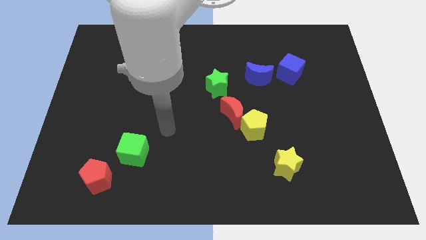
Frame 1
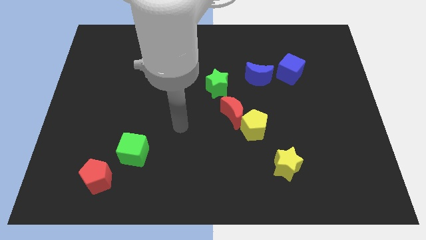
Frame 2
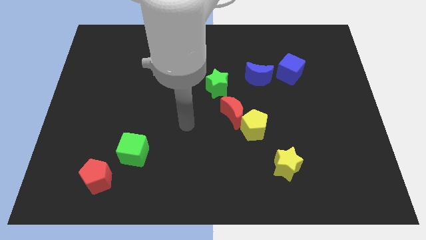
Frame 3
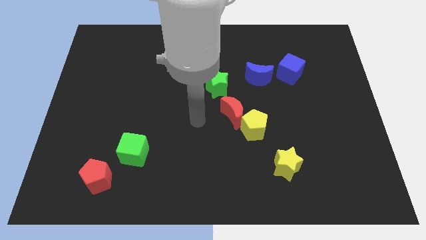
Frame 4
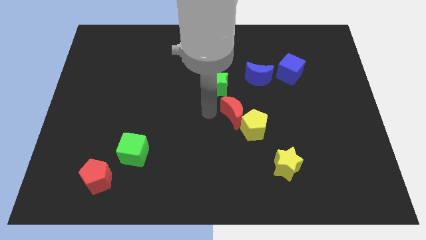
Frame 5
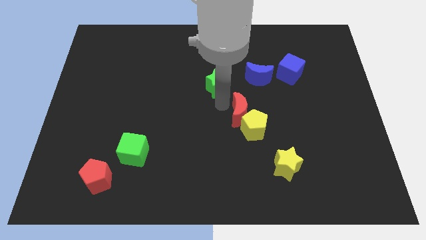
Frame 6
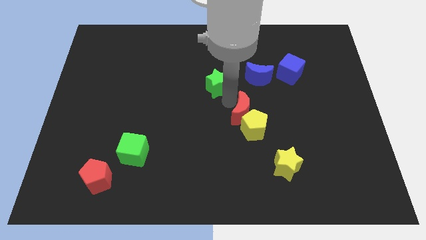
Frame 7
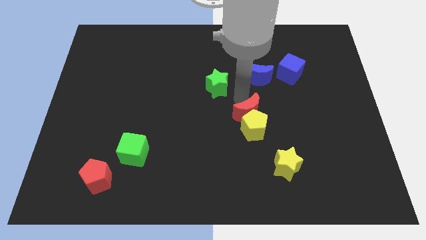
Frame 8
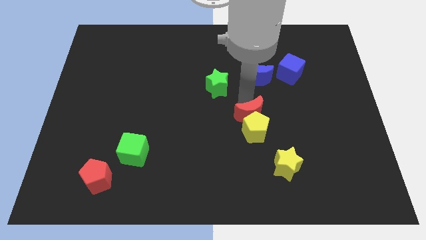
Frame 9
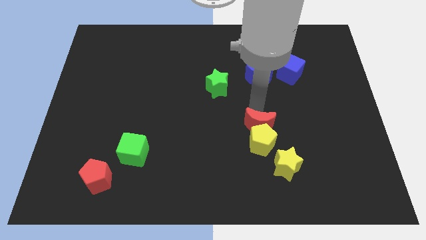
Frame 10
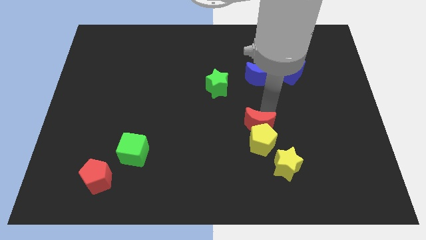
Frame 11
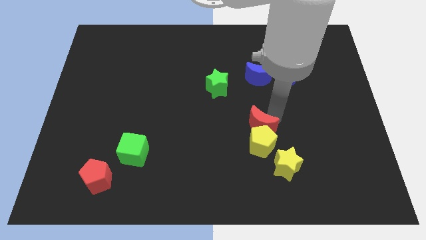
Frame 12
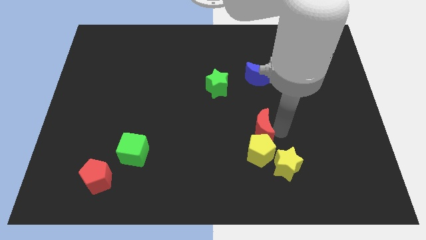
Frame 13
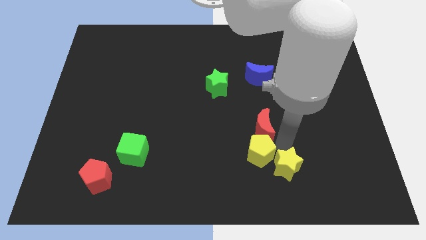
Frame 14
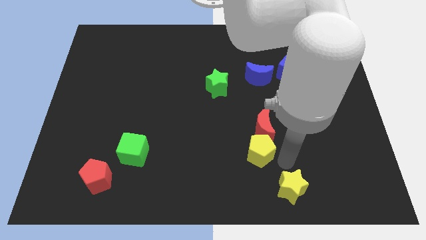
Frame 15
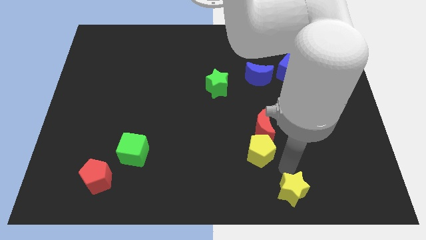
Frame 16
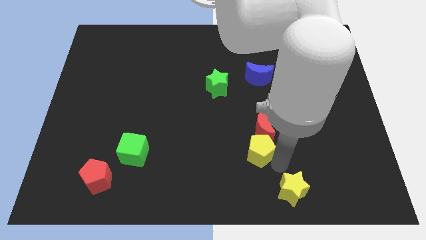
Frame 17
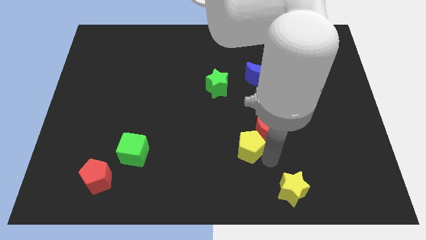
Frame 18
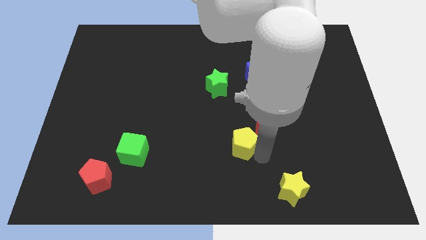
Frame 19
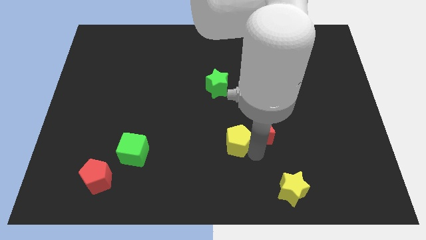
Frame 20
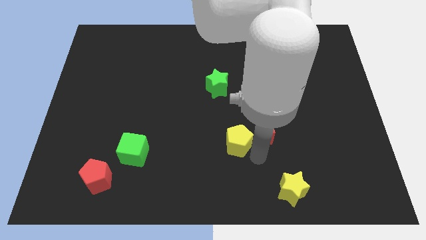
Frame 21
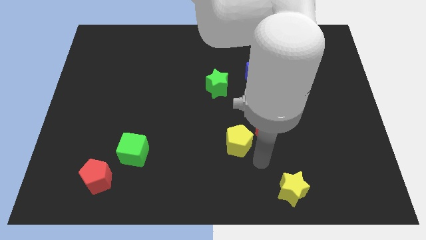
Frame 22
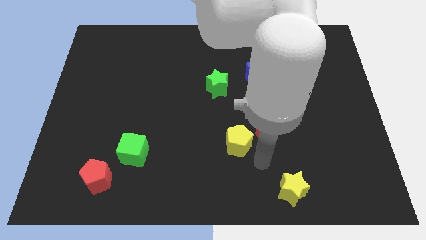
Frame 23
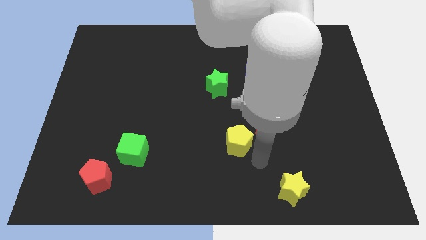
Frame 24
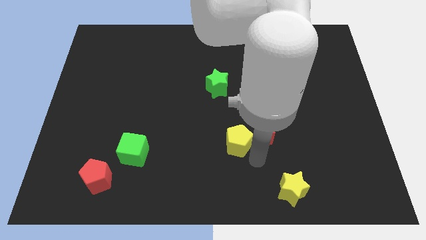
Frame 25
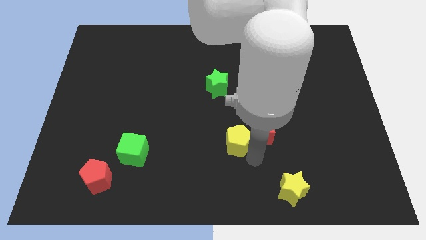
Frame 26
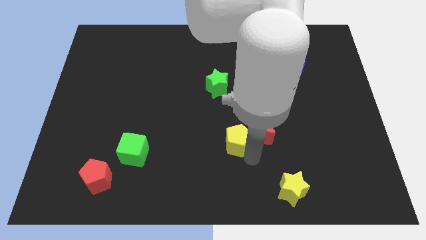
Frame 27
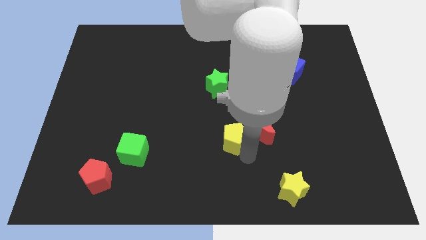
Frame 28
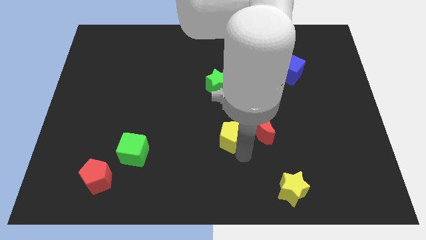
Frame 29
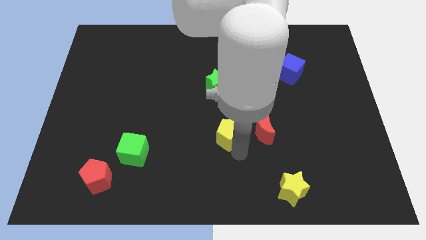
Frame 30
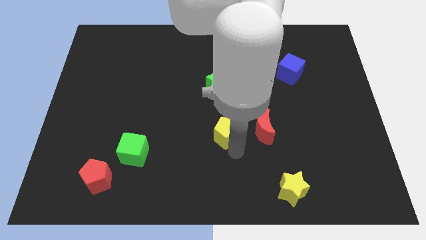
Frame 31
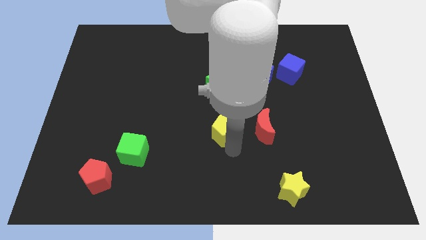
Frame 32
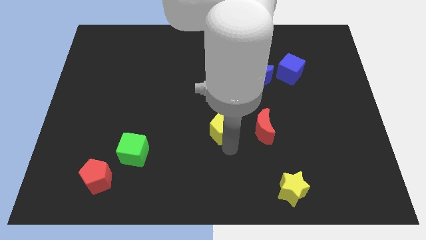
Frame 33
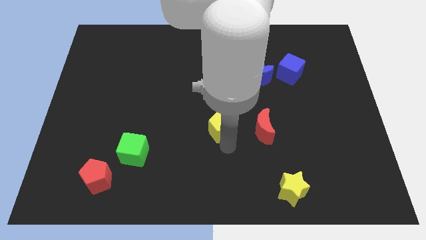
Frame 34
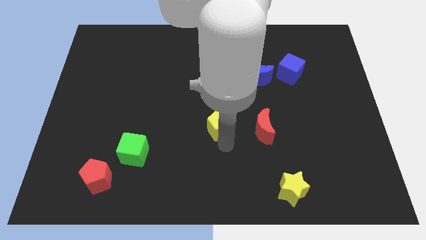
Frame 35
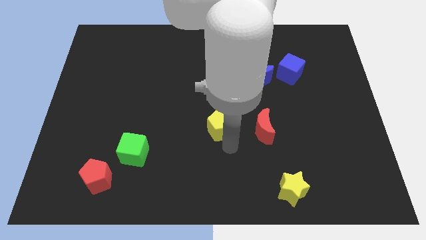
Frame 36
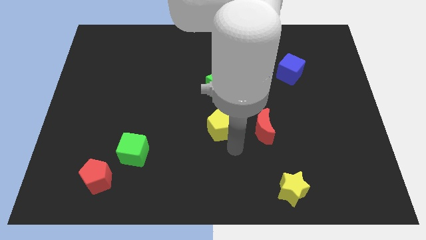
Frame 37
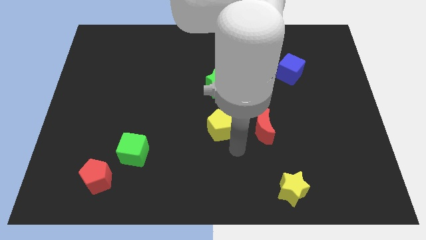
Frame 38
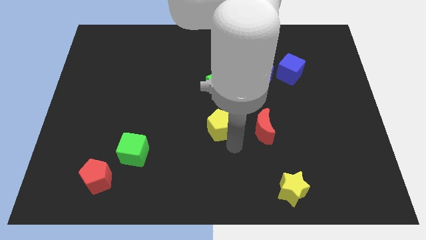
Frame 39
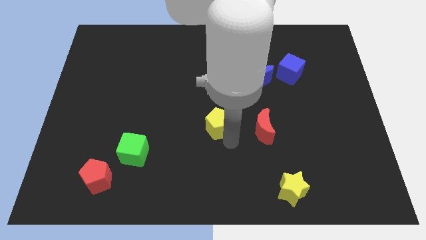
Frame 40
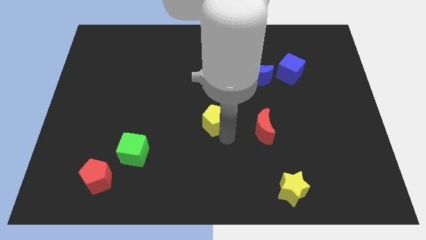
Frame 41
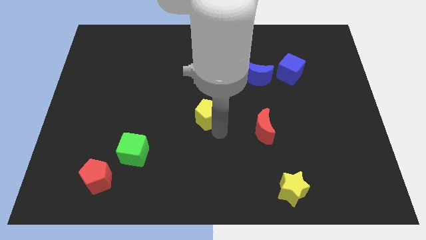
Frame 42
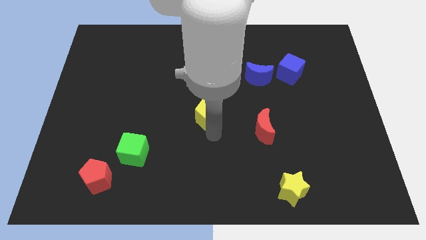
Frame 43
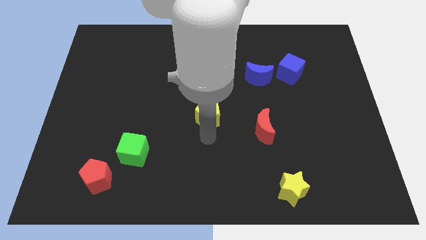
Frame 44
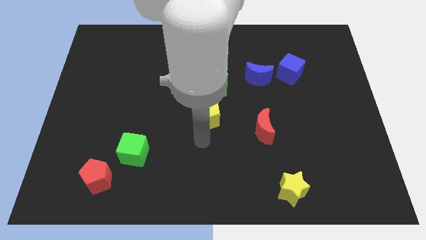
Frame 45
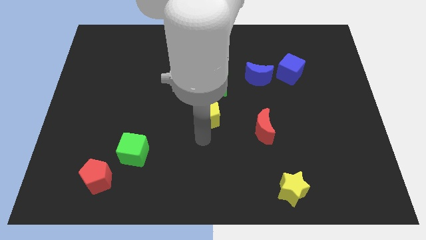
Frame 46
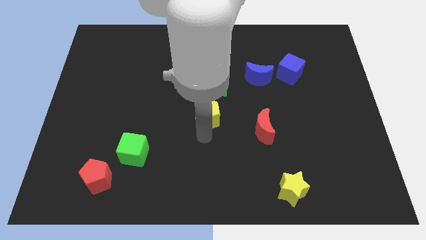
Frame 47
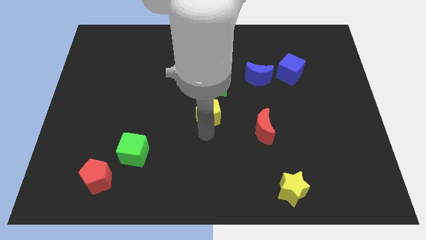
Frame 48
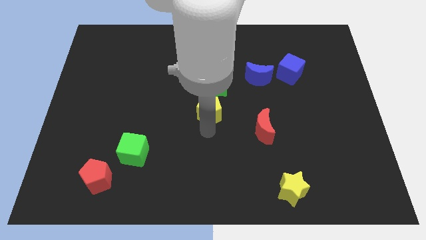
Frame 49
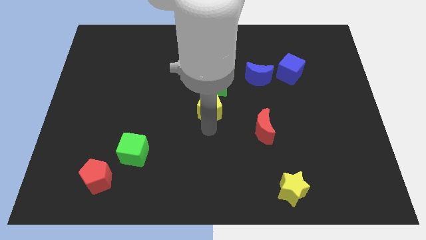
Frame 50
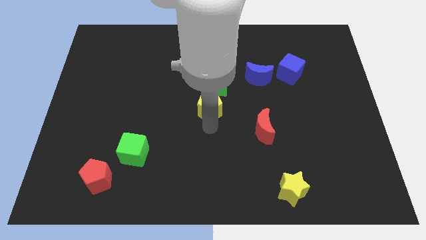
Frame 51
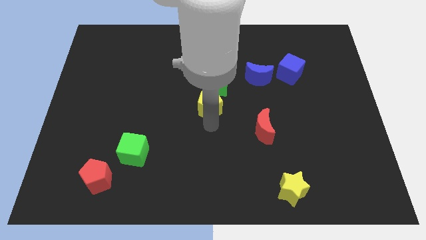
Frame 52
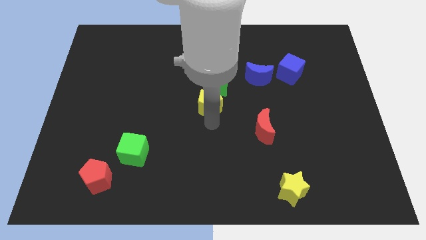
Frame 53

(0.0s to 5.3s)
move the yellow pentagon close to the green star

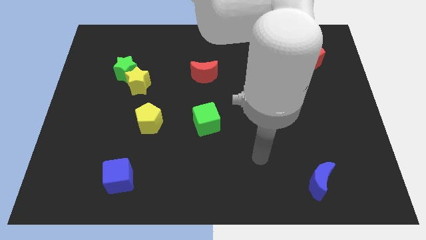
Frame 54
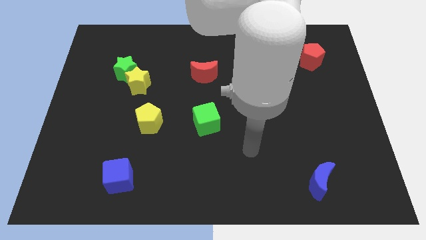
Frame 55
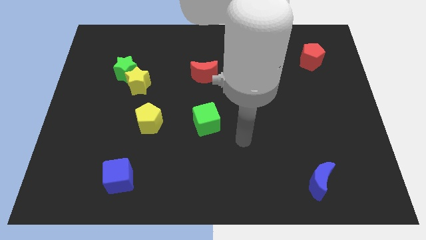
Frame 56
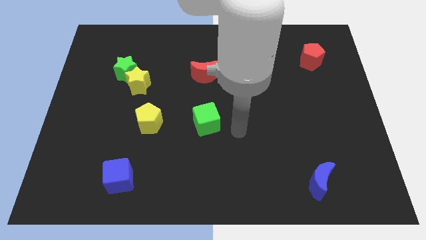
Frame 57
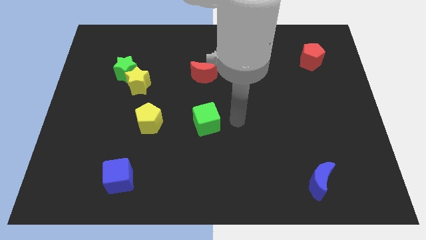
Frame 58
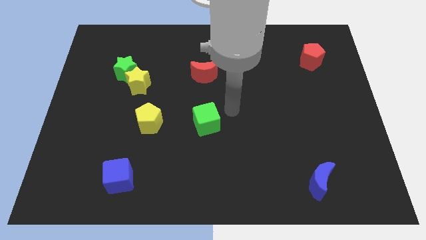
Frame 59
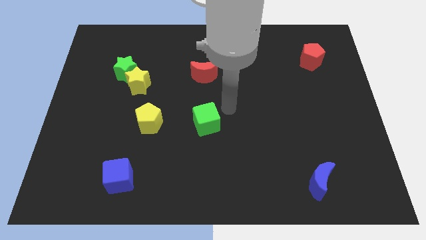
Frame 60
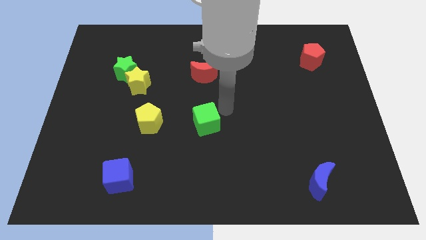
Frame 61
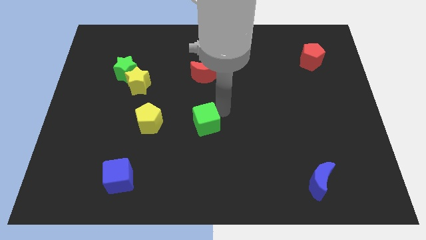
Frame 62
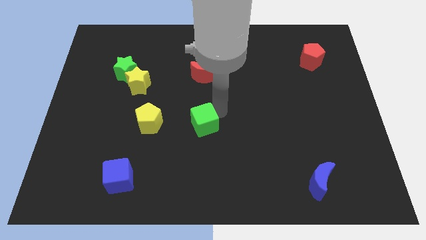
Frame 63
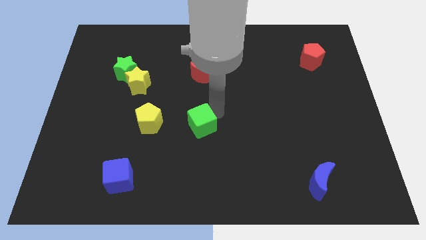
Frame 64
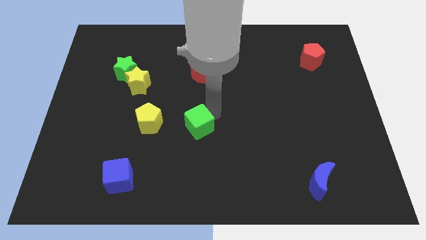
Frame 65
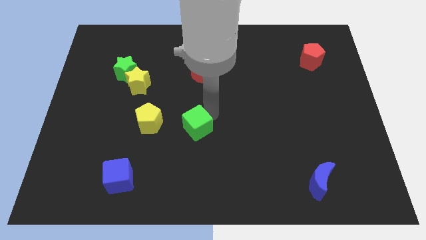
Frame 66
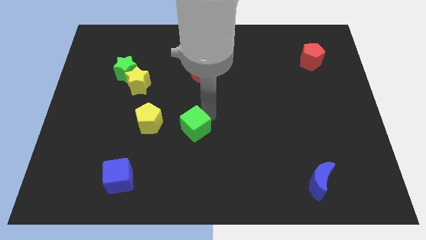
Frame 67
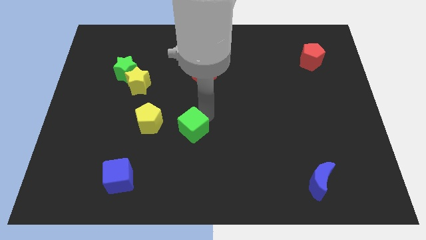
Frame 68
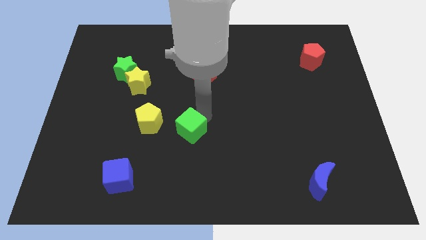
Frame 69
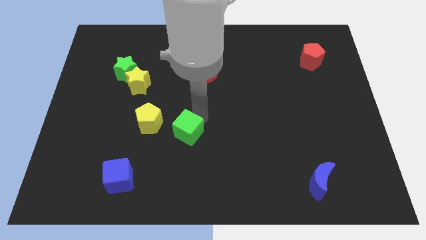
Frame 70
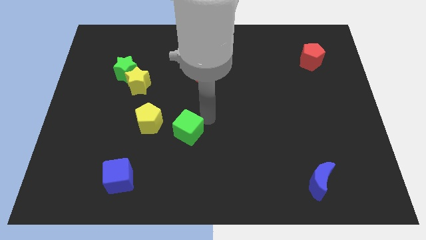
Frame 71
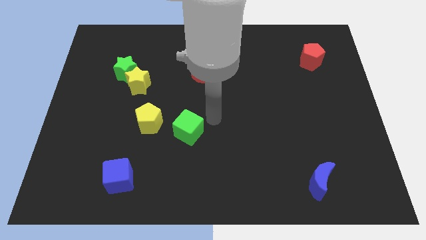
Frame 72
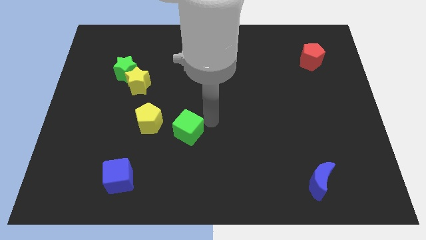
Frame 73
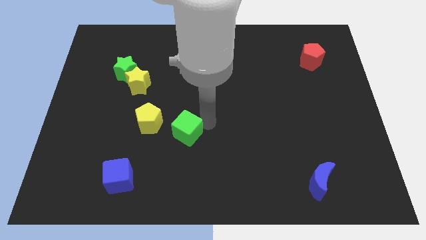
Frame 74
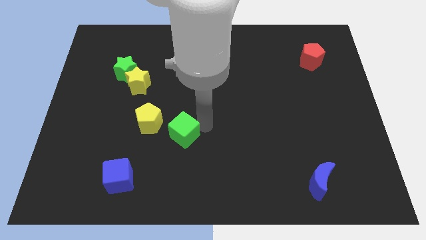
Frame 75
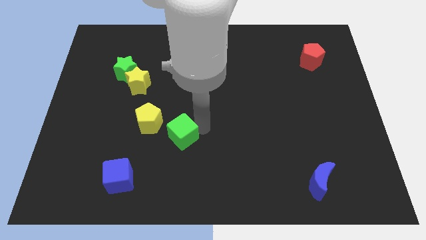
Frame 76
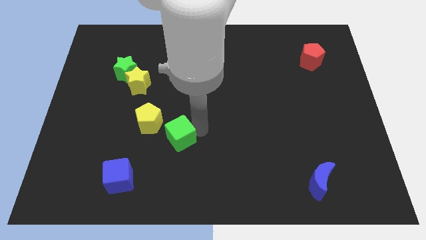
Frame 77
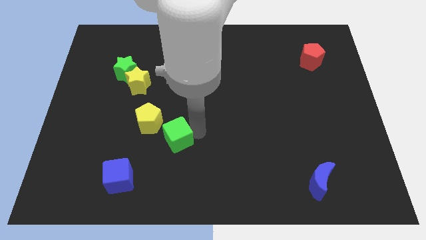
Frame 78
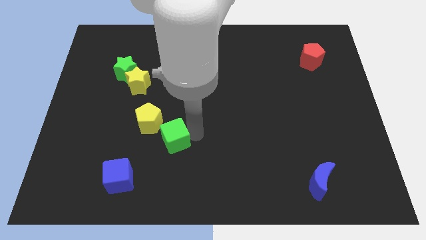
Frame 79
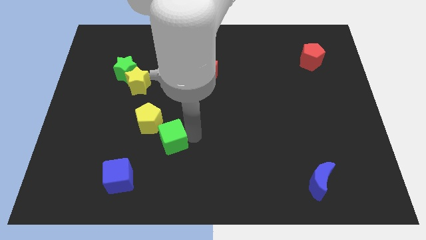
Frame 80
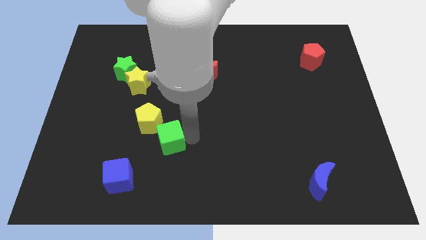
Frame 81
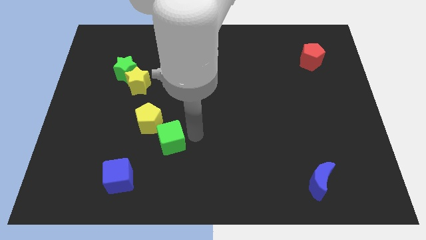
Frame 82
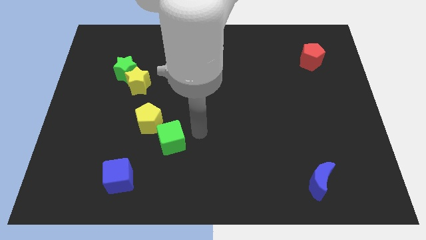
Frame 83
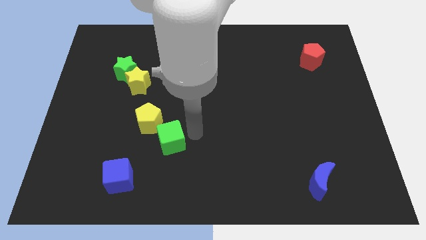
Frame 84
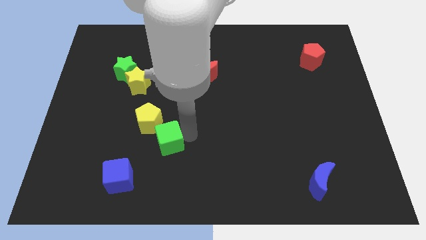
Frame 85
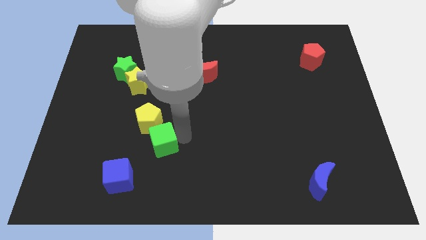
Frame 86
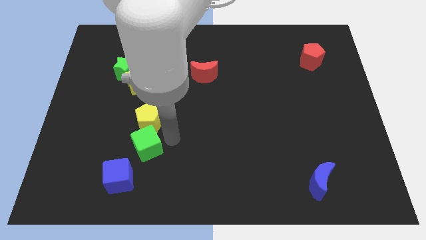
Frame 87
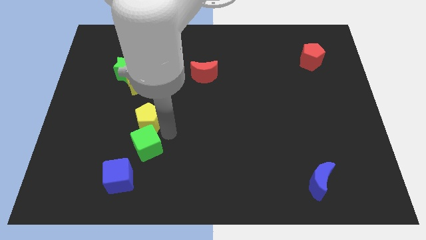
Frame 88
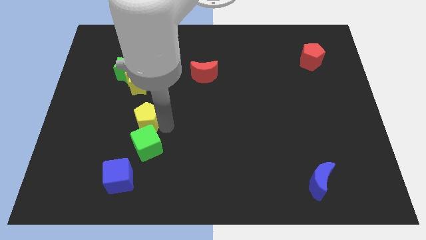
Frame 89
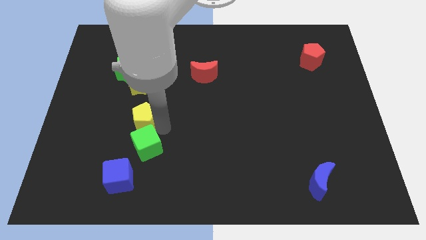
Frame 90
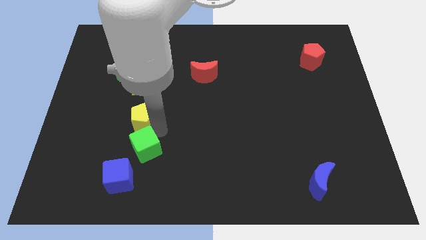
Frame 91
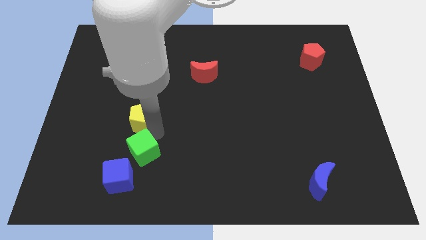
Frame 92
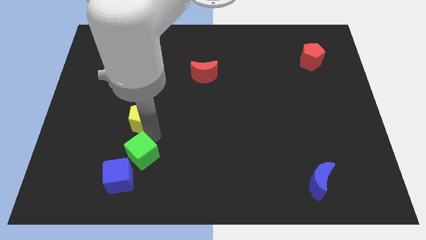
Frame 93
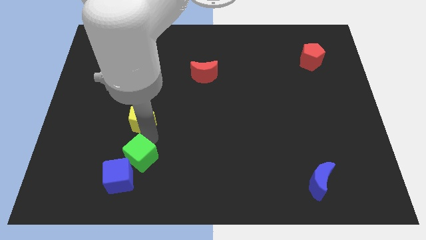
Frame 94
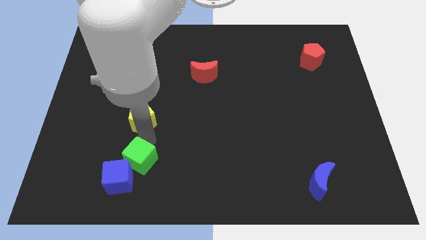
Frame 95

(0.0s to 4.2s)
push the green cube close to the blue cube
